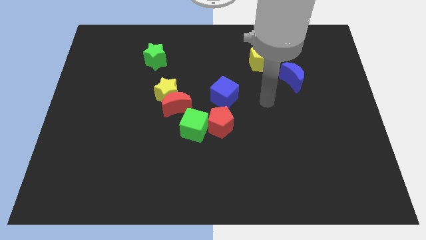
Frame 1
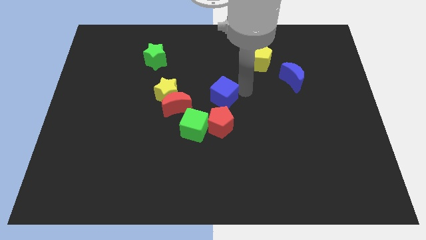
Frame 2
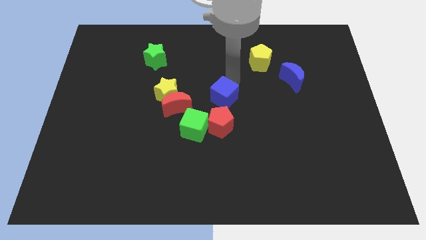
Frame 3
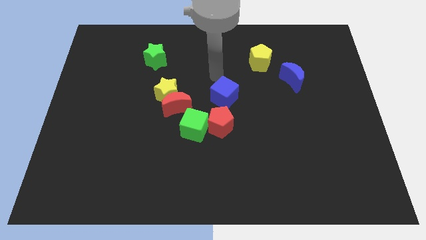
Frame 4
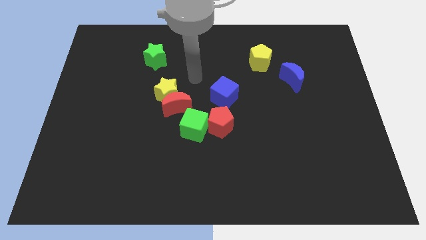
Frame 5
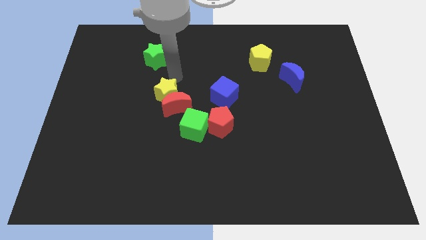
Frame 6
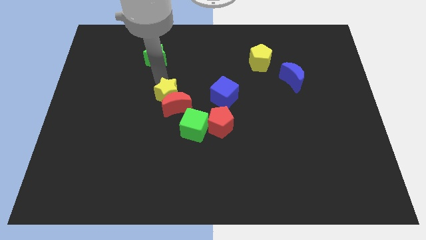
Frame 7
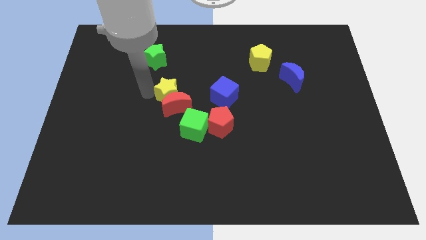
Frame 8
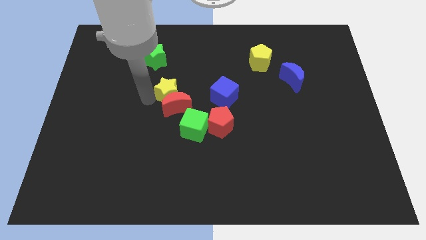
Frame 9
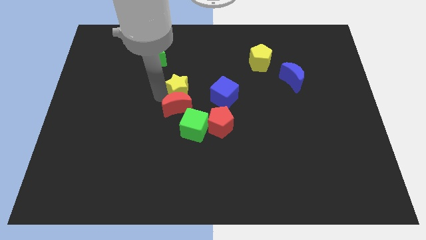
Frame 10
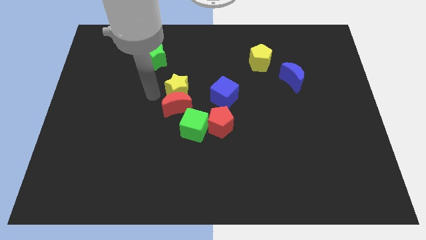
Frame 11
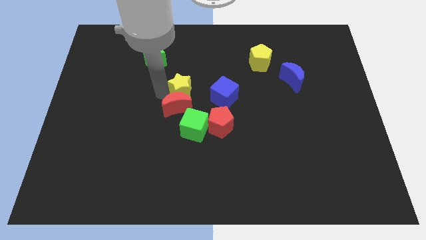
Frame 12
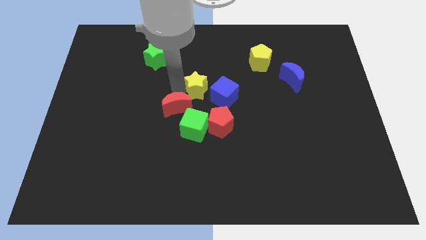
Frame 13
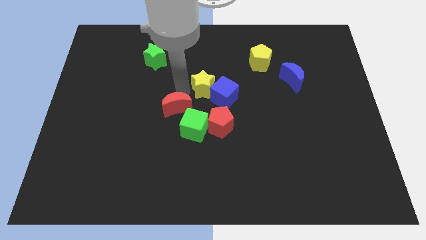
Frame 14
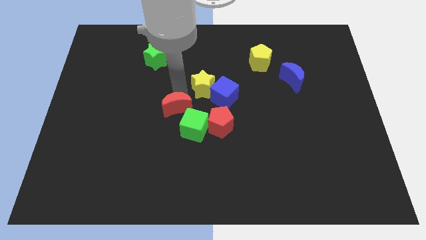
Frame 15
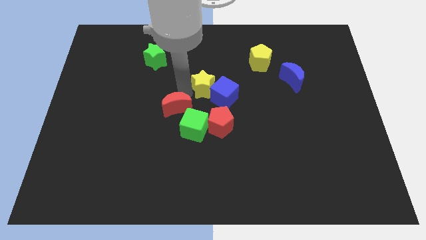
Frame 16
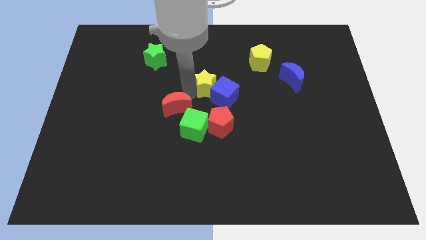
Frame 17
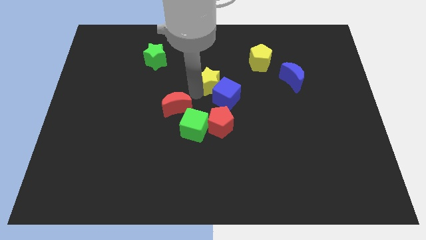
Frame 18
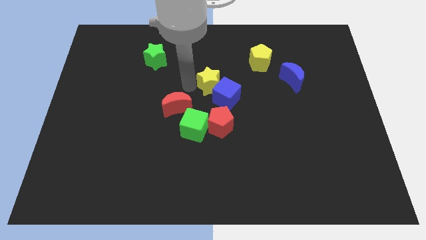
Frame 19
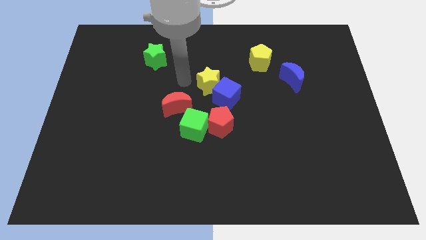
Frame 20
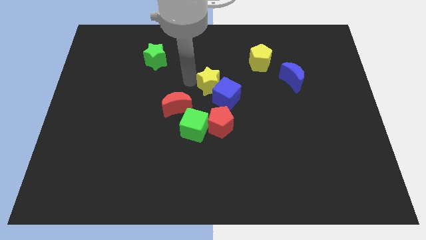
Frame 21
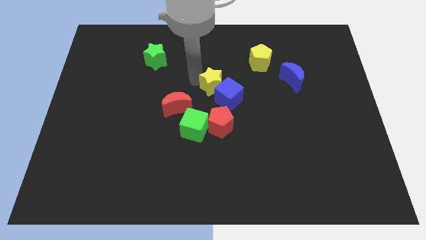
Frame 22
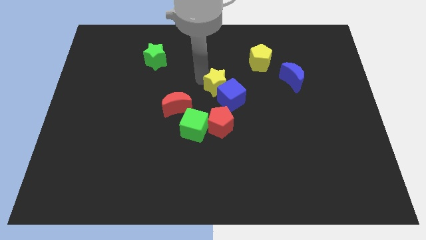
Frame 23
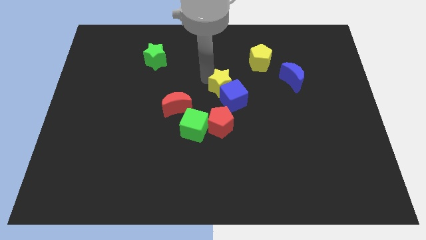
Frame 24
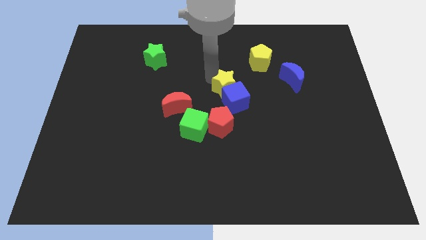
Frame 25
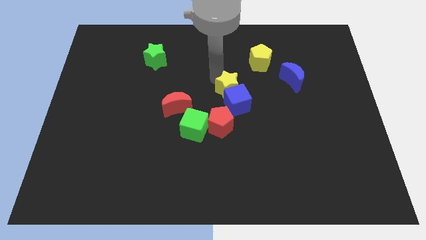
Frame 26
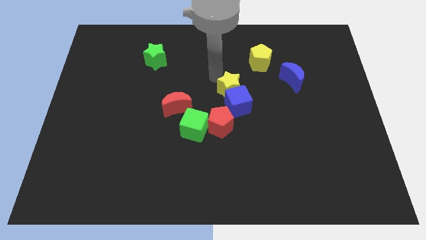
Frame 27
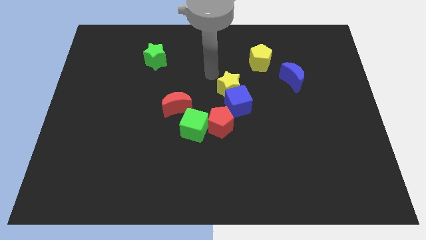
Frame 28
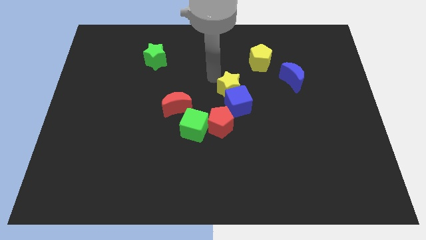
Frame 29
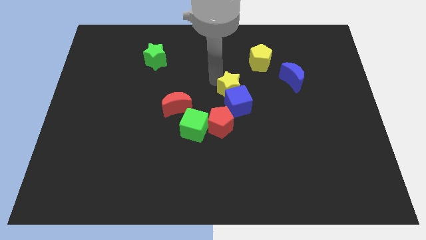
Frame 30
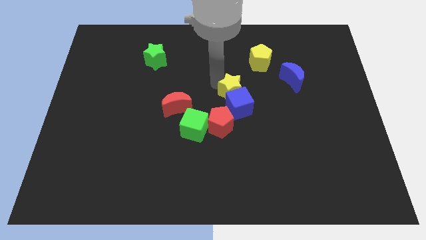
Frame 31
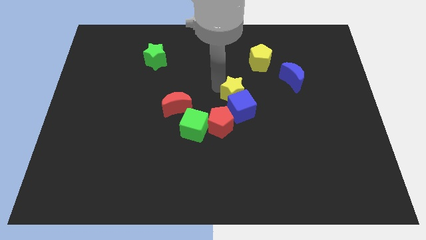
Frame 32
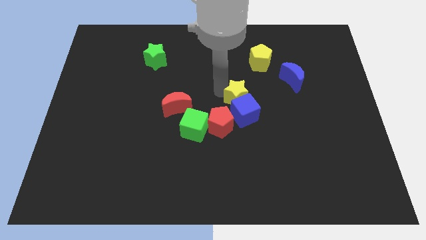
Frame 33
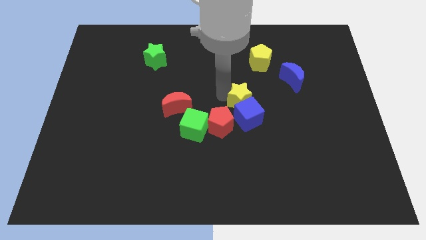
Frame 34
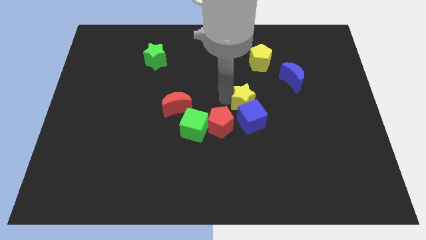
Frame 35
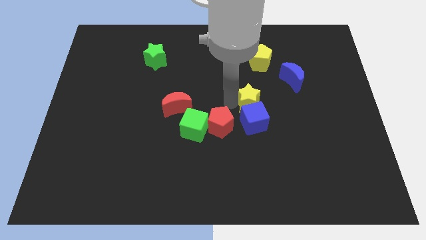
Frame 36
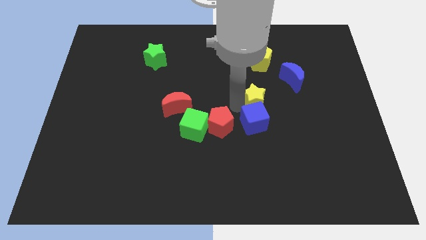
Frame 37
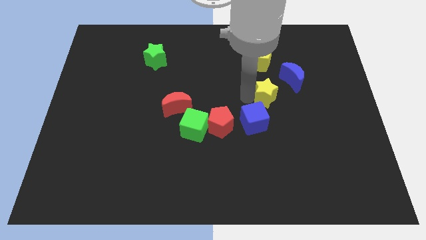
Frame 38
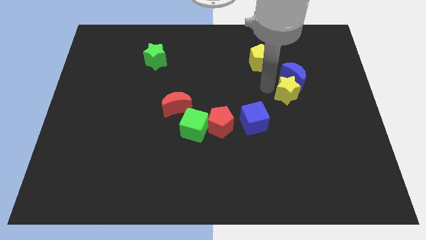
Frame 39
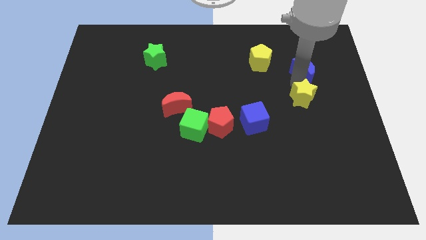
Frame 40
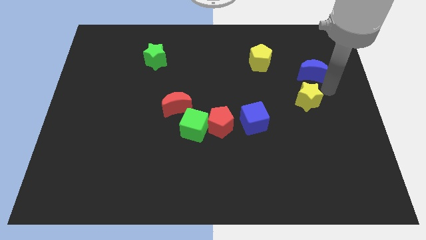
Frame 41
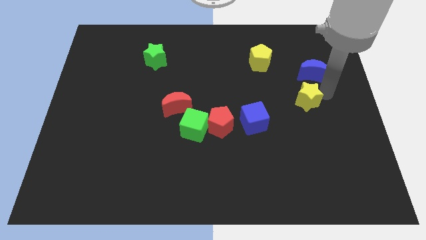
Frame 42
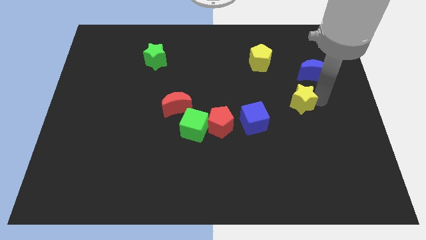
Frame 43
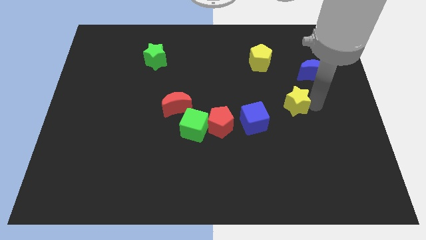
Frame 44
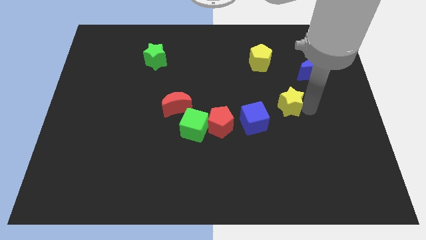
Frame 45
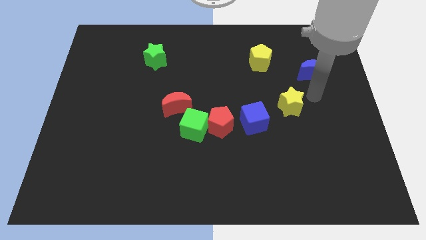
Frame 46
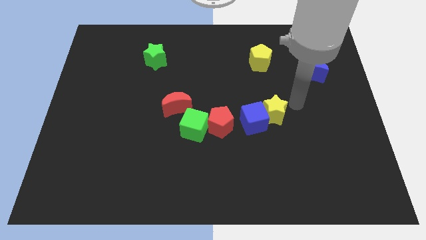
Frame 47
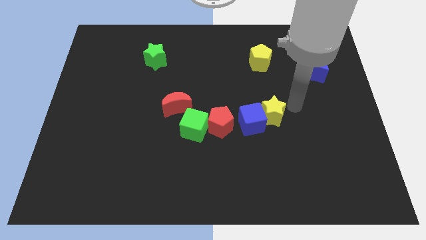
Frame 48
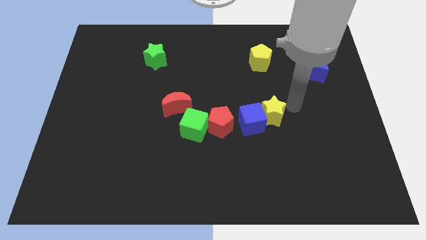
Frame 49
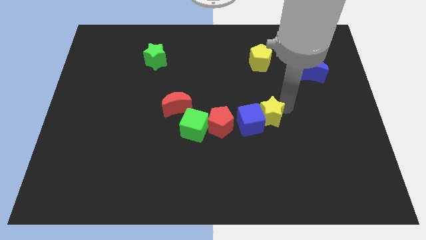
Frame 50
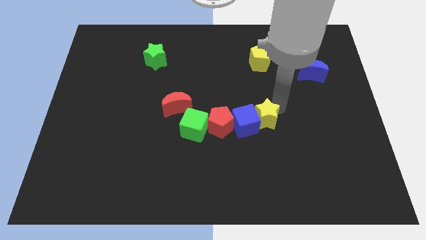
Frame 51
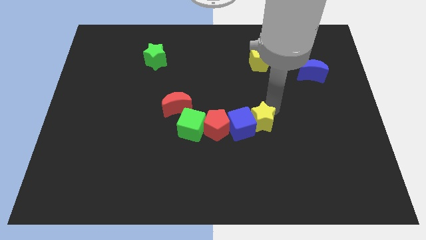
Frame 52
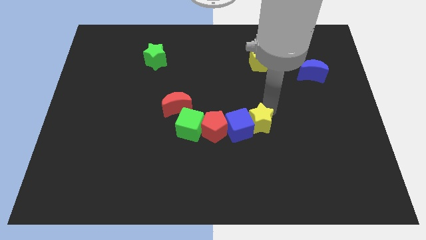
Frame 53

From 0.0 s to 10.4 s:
move the yellow star just right of the green cube

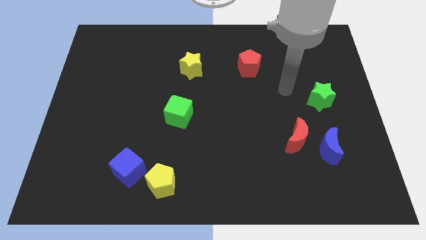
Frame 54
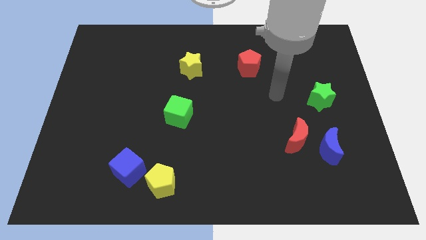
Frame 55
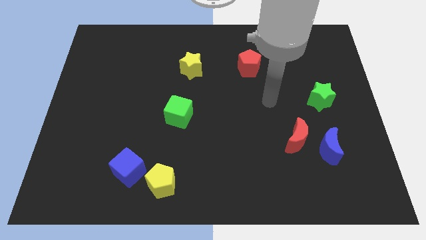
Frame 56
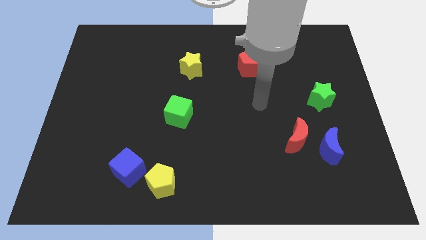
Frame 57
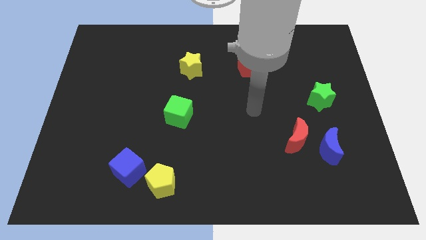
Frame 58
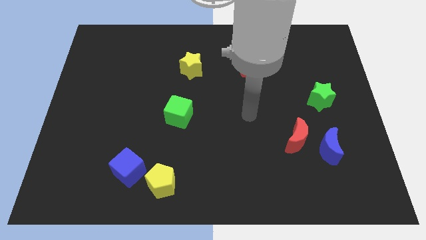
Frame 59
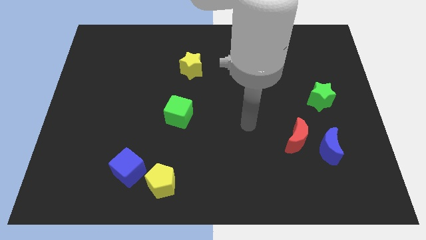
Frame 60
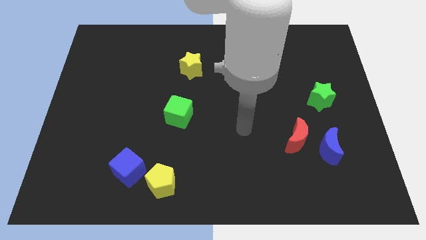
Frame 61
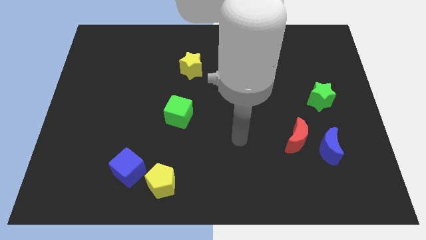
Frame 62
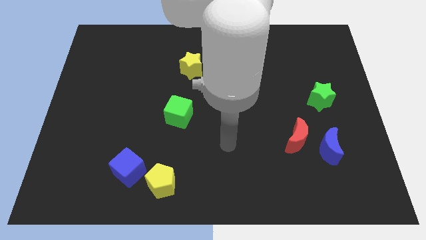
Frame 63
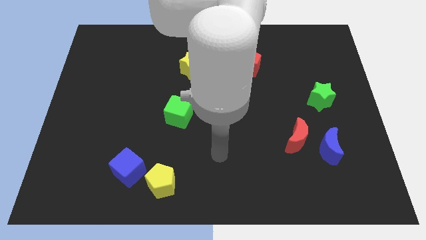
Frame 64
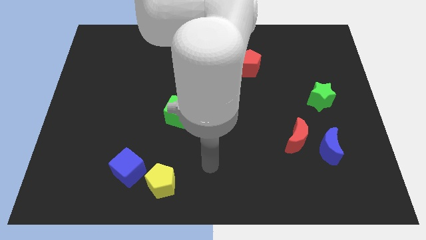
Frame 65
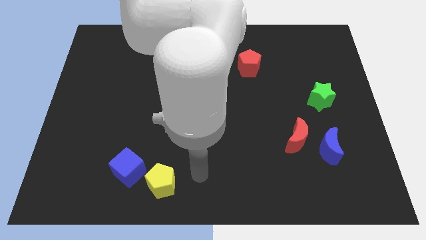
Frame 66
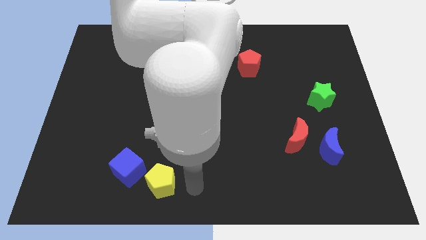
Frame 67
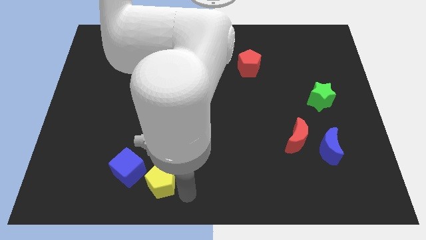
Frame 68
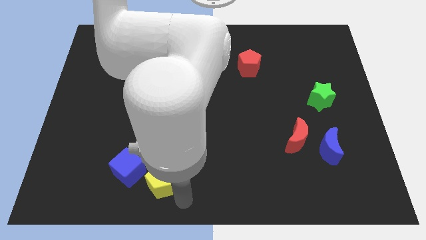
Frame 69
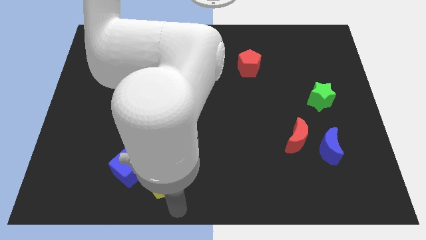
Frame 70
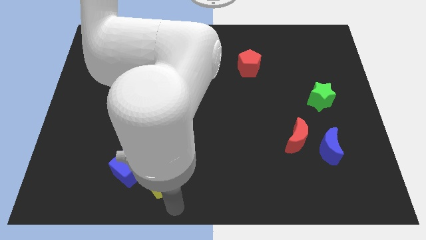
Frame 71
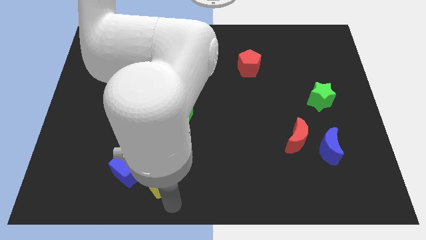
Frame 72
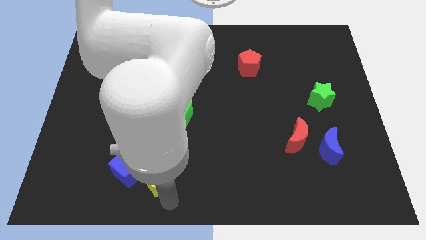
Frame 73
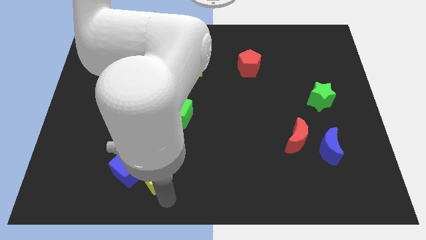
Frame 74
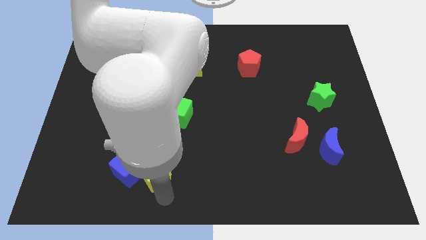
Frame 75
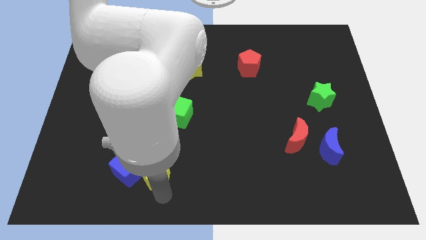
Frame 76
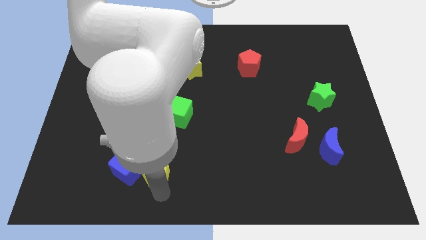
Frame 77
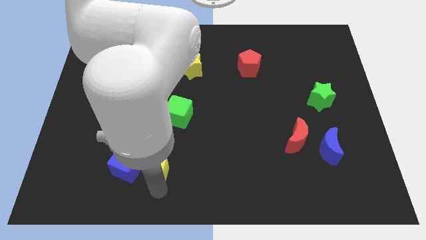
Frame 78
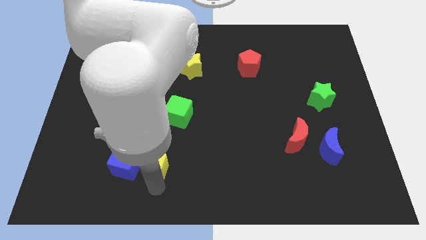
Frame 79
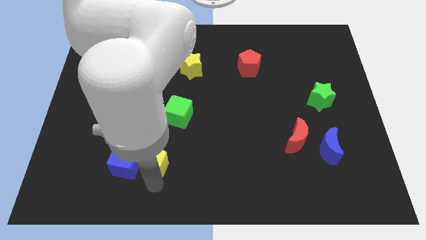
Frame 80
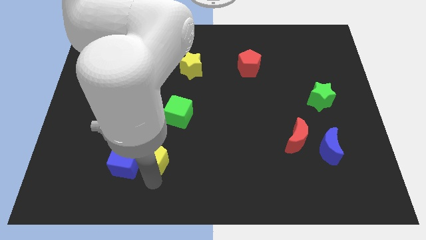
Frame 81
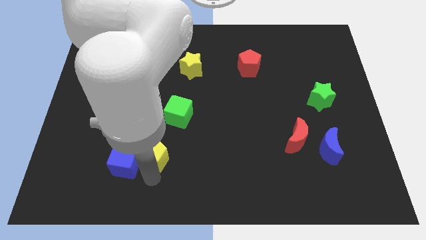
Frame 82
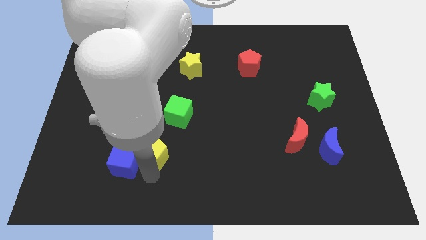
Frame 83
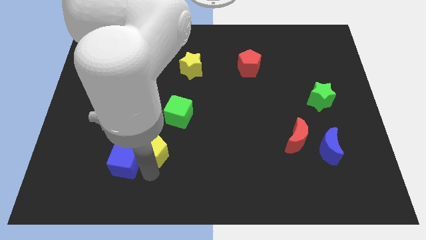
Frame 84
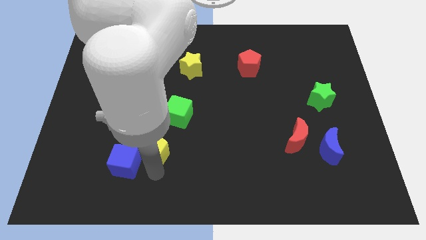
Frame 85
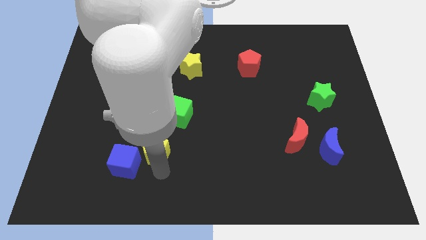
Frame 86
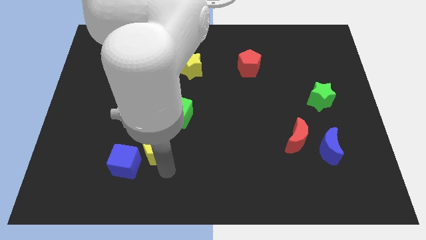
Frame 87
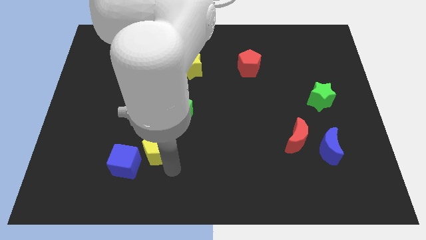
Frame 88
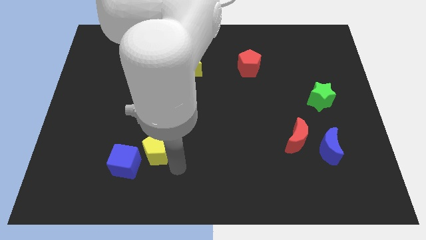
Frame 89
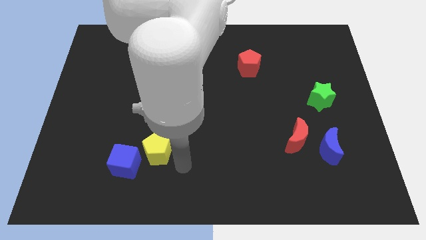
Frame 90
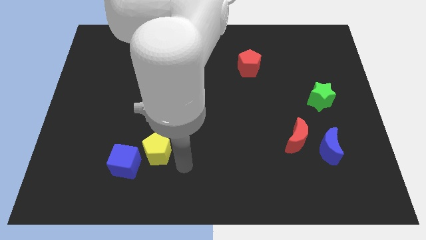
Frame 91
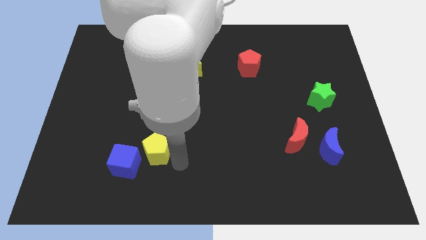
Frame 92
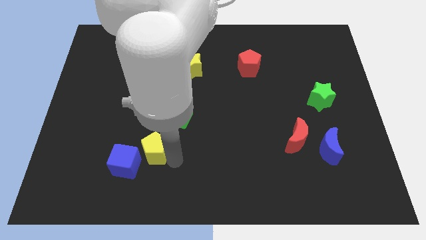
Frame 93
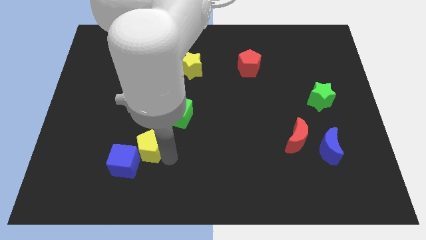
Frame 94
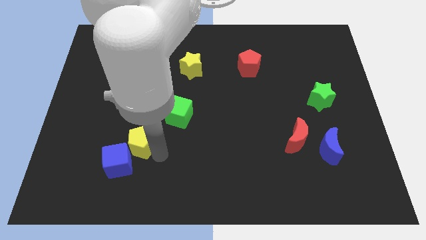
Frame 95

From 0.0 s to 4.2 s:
slide the yellow pentagon to the top side of the blue cube
